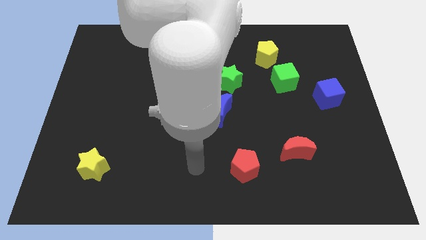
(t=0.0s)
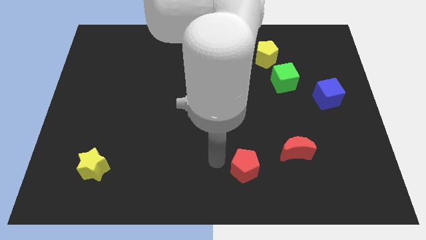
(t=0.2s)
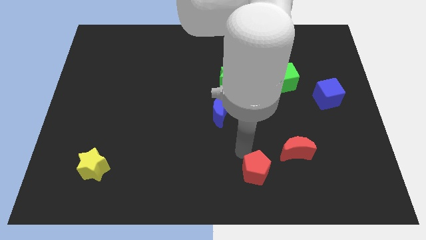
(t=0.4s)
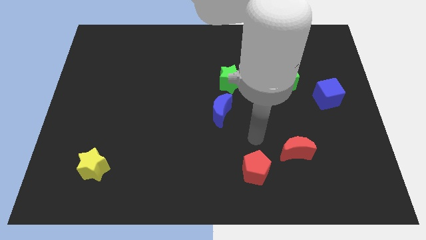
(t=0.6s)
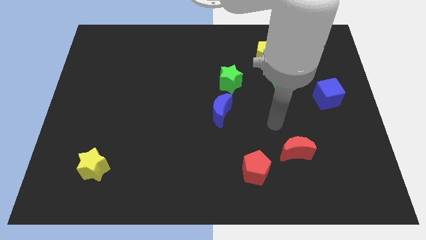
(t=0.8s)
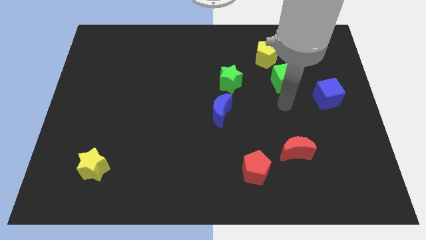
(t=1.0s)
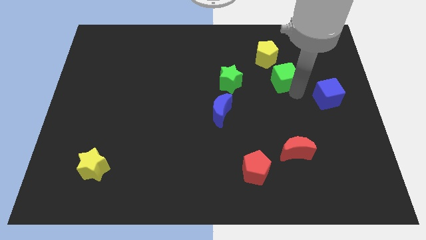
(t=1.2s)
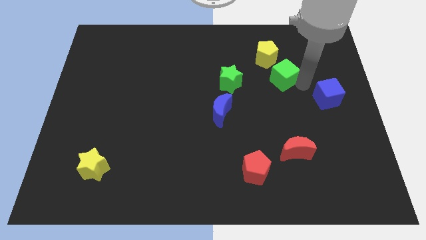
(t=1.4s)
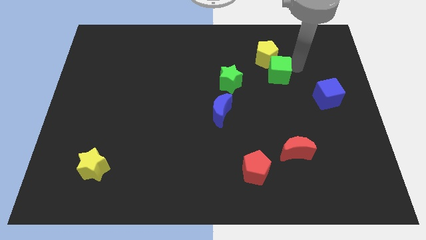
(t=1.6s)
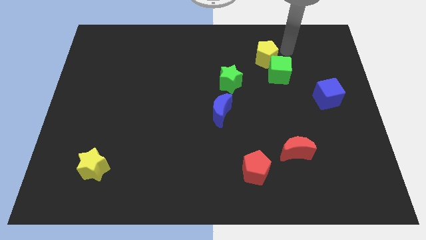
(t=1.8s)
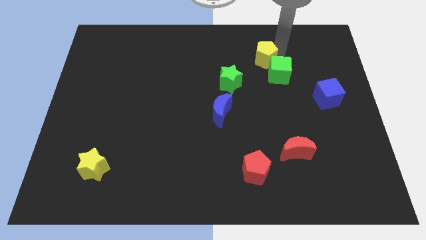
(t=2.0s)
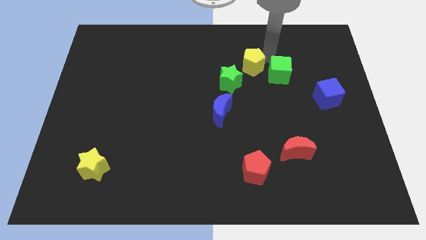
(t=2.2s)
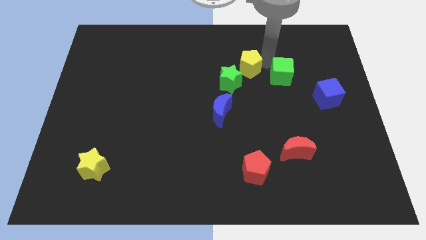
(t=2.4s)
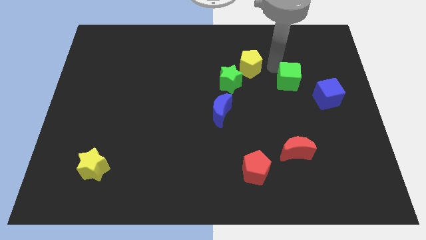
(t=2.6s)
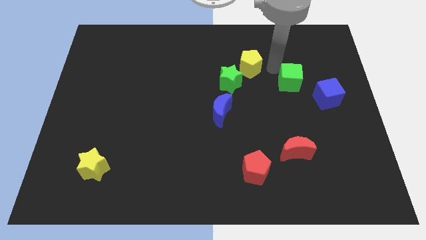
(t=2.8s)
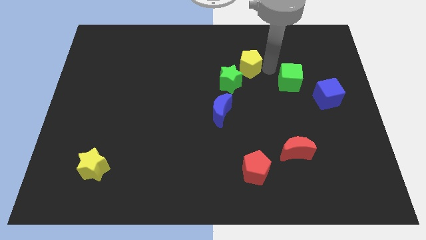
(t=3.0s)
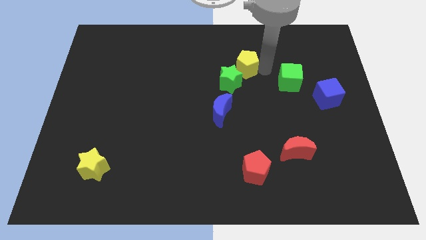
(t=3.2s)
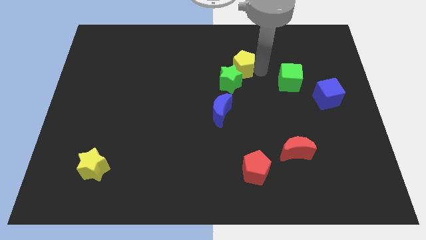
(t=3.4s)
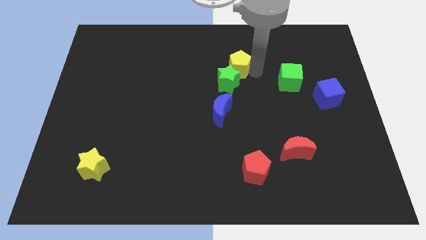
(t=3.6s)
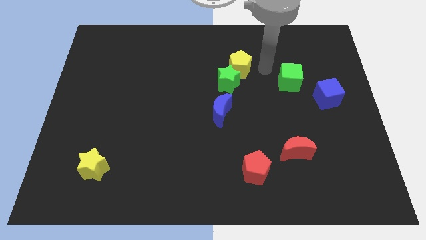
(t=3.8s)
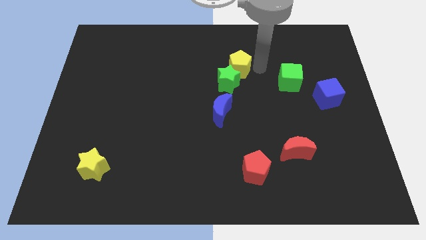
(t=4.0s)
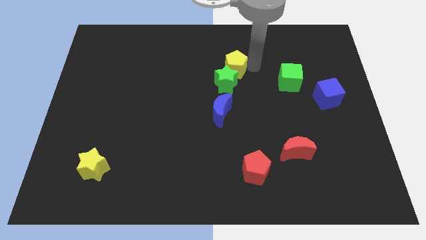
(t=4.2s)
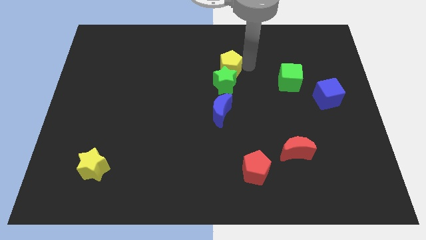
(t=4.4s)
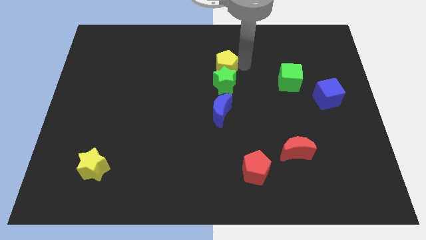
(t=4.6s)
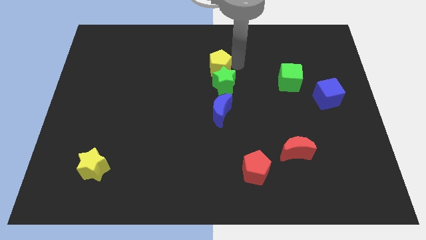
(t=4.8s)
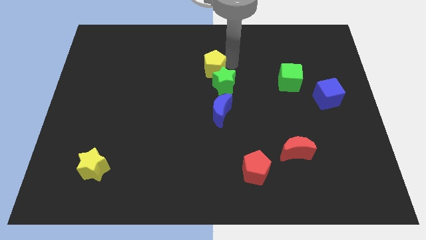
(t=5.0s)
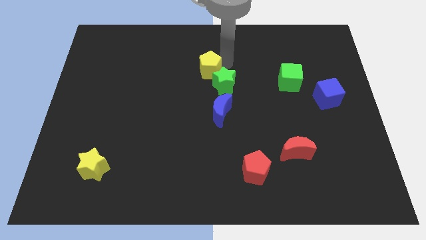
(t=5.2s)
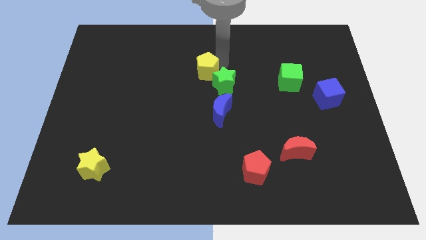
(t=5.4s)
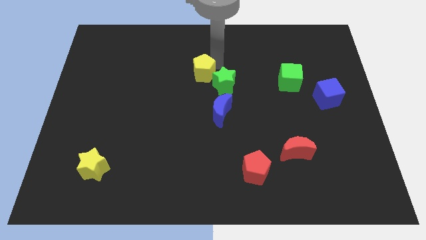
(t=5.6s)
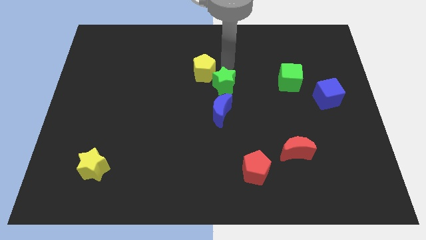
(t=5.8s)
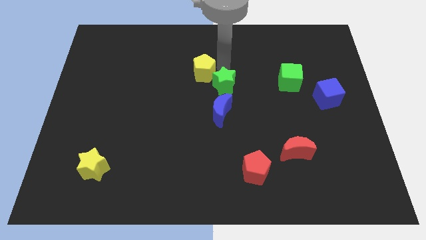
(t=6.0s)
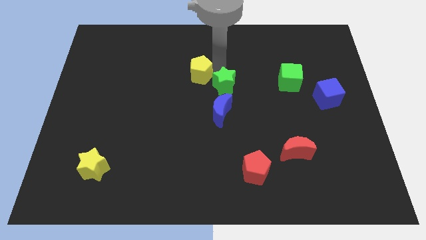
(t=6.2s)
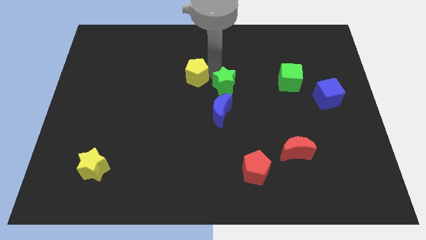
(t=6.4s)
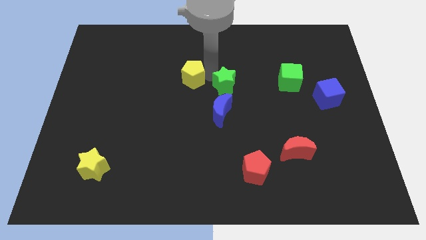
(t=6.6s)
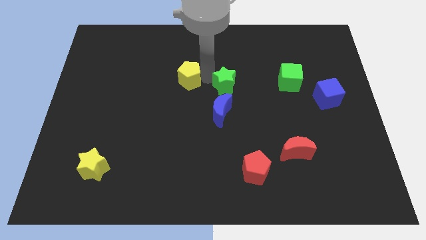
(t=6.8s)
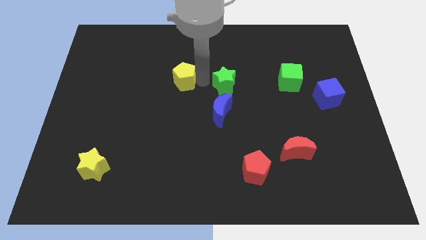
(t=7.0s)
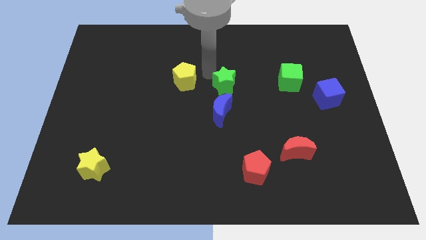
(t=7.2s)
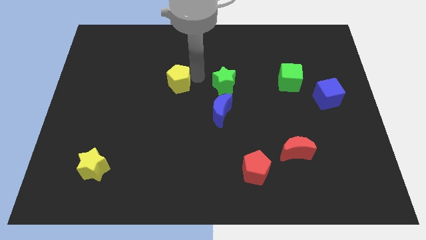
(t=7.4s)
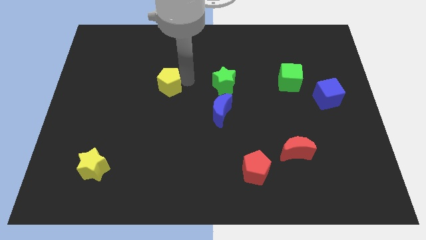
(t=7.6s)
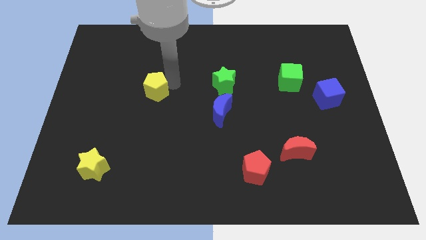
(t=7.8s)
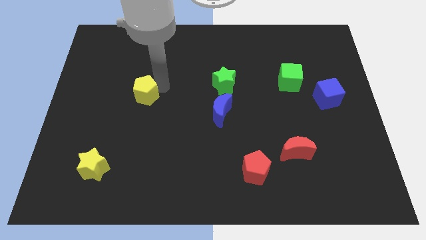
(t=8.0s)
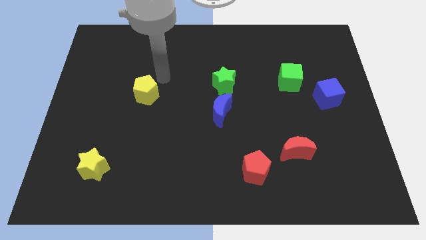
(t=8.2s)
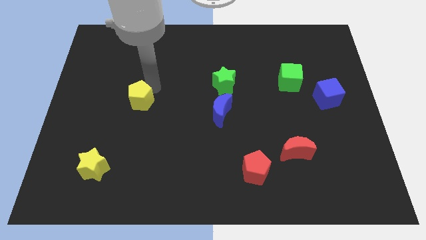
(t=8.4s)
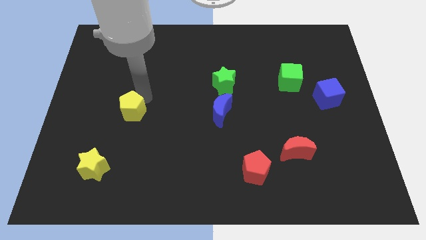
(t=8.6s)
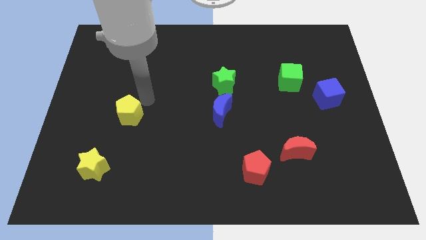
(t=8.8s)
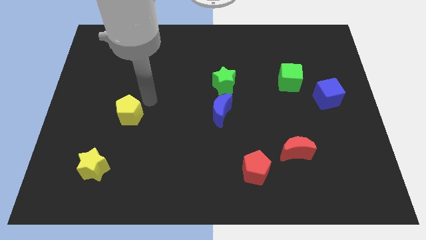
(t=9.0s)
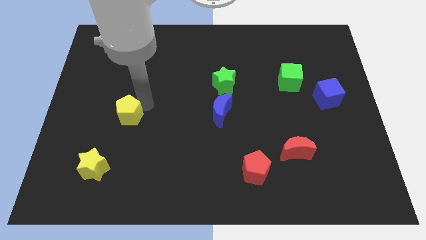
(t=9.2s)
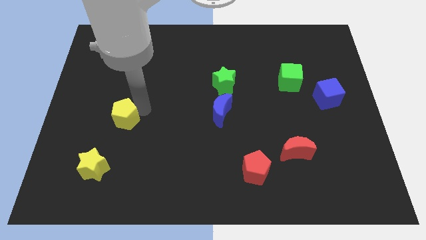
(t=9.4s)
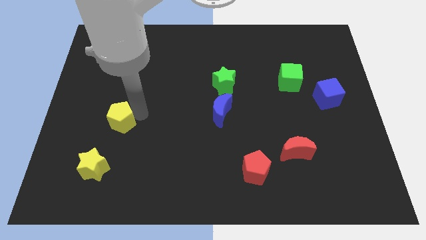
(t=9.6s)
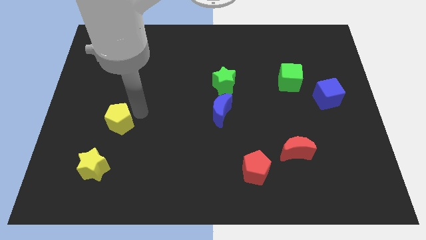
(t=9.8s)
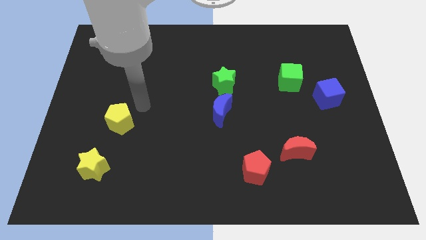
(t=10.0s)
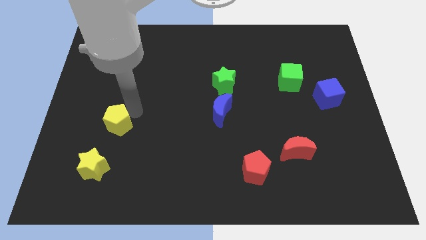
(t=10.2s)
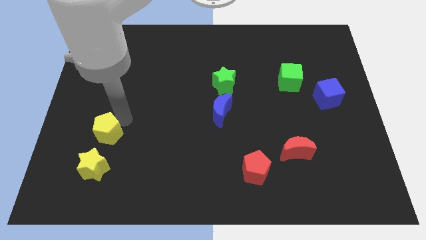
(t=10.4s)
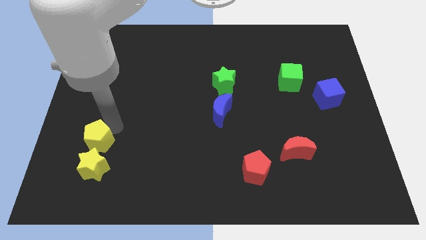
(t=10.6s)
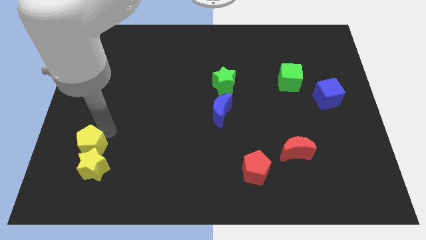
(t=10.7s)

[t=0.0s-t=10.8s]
move the yellow pentagon close to the yellow star
